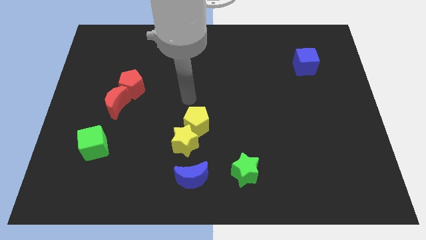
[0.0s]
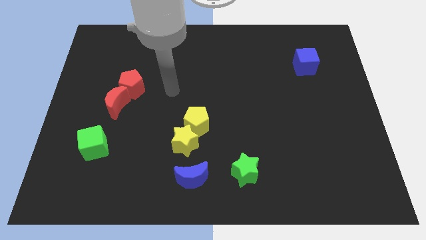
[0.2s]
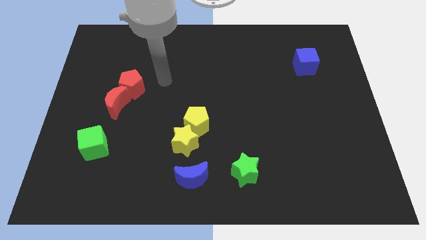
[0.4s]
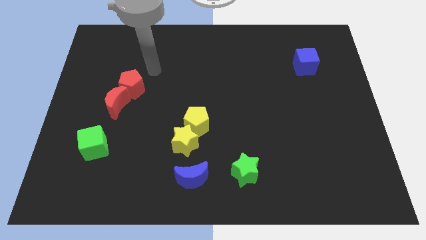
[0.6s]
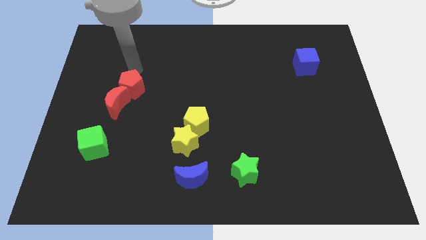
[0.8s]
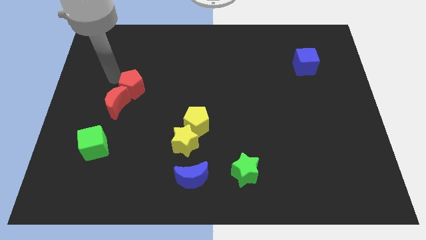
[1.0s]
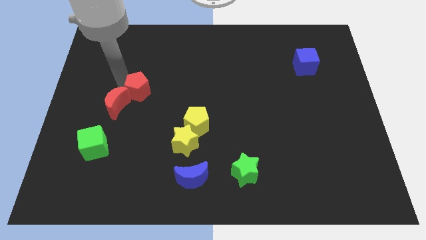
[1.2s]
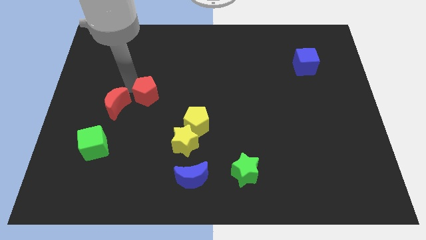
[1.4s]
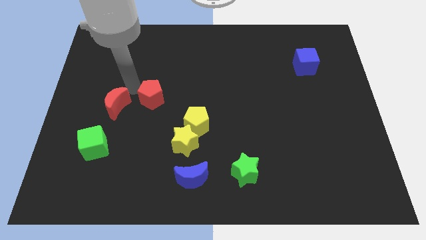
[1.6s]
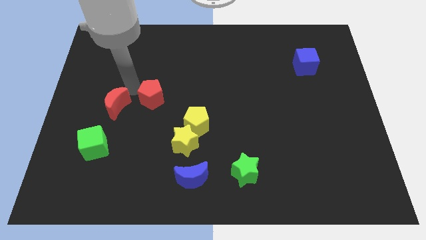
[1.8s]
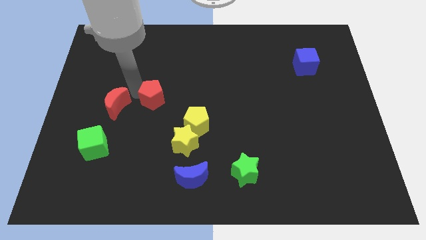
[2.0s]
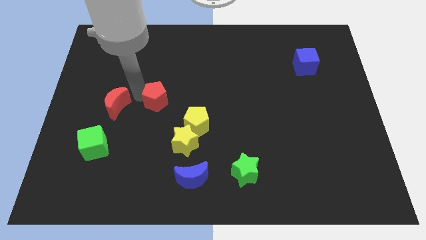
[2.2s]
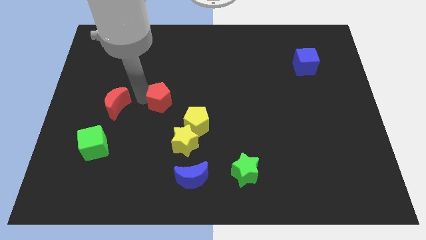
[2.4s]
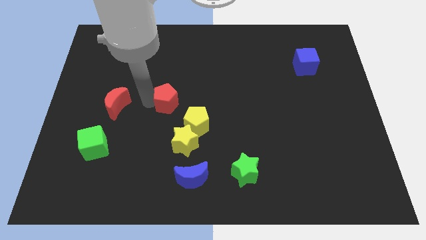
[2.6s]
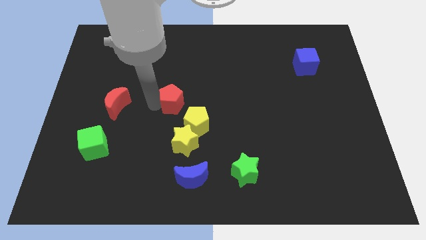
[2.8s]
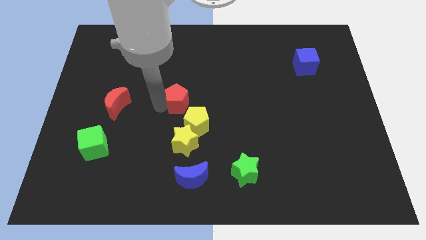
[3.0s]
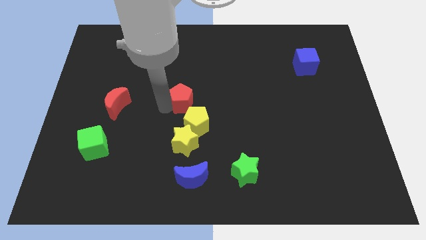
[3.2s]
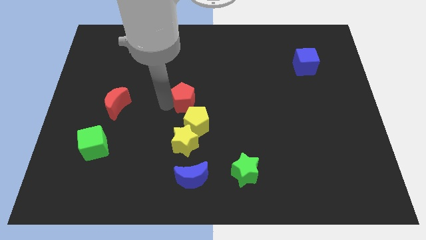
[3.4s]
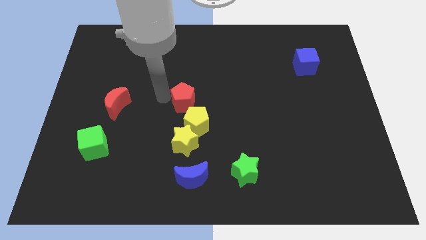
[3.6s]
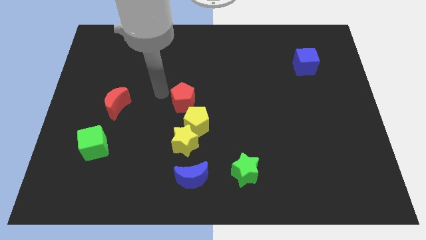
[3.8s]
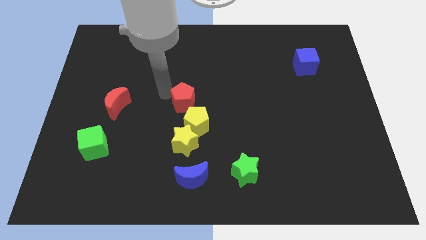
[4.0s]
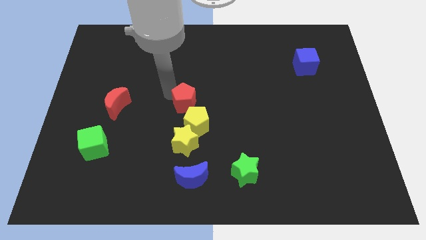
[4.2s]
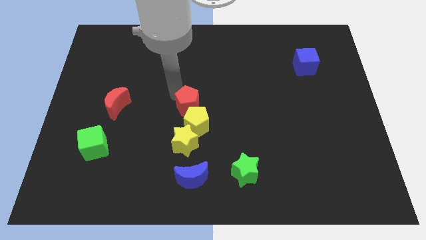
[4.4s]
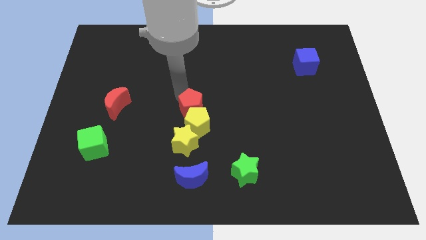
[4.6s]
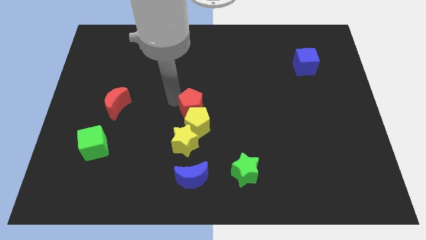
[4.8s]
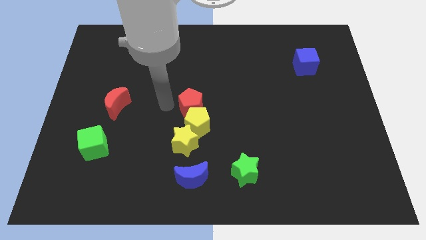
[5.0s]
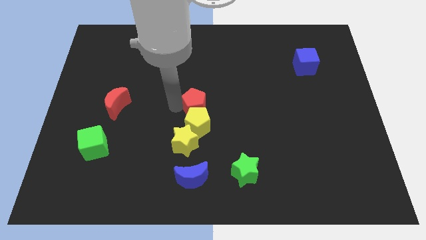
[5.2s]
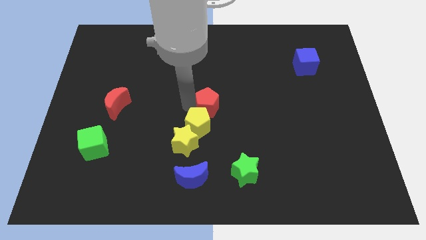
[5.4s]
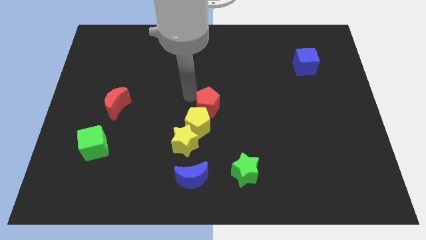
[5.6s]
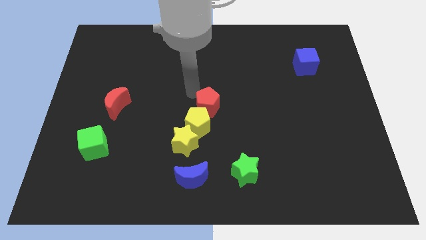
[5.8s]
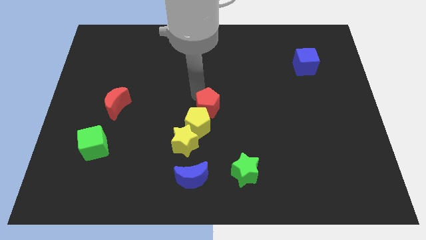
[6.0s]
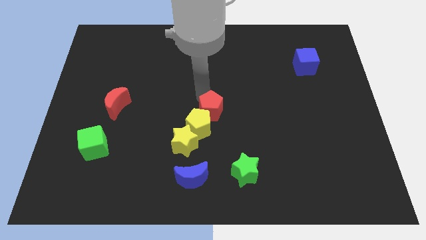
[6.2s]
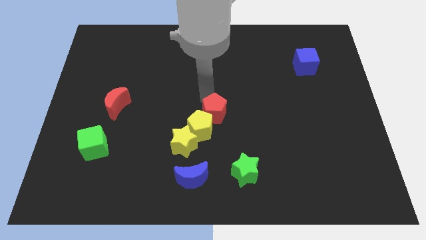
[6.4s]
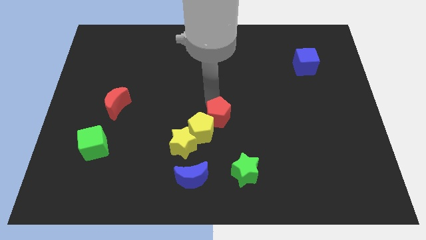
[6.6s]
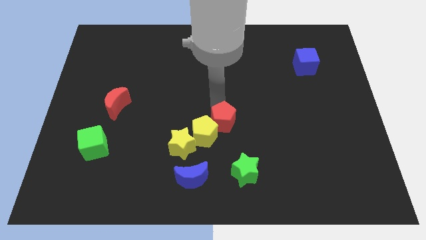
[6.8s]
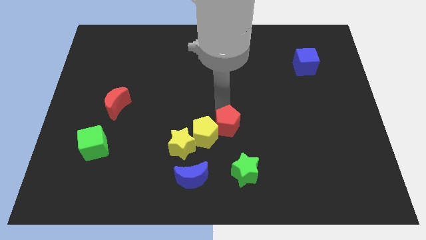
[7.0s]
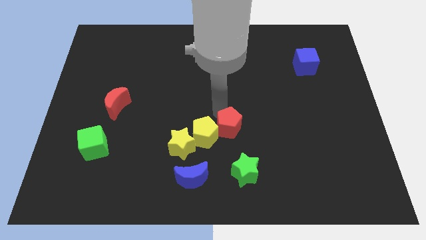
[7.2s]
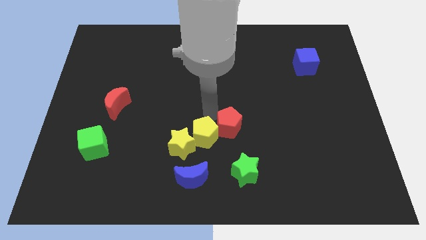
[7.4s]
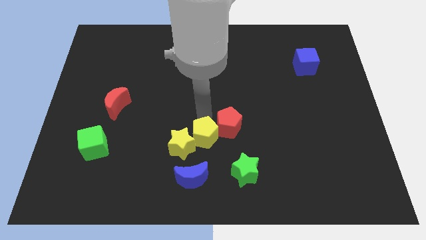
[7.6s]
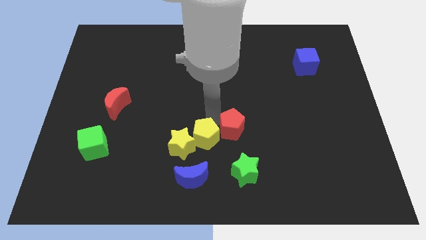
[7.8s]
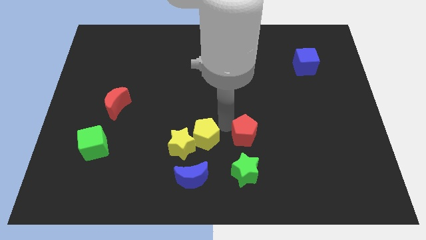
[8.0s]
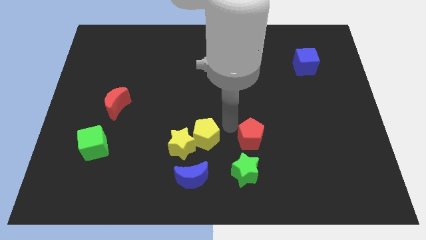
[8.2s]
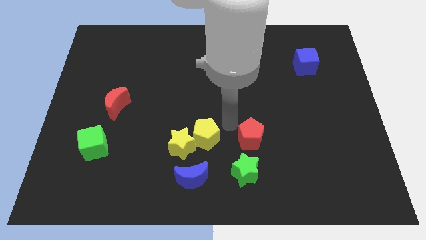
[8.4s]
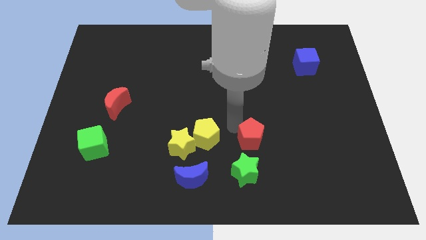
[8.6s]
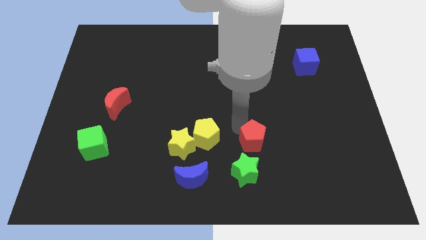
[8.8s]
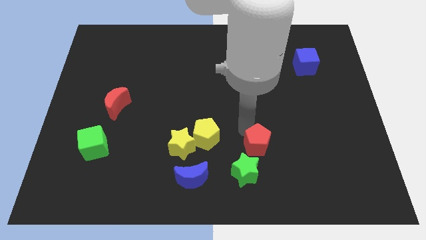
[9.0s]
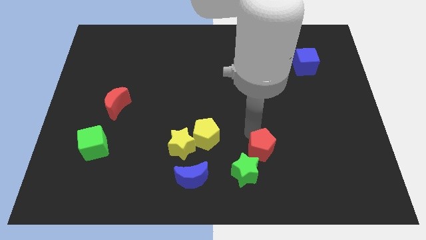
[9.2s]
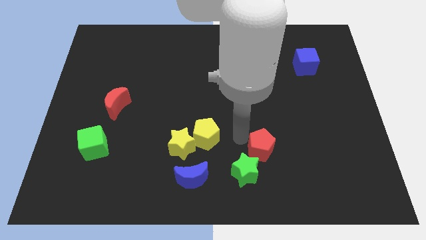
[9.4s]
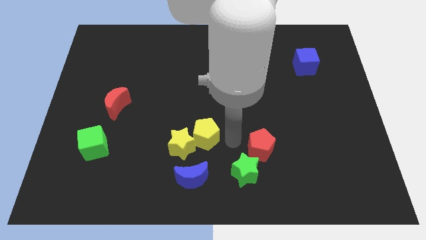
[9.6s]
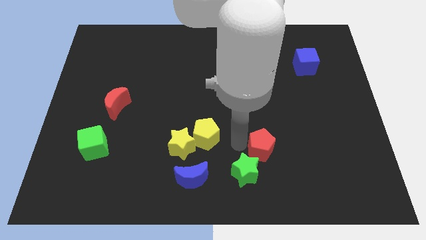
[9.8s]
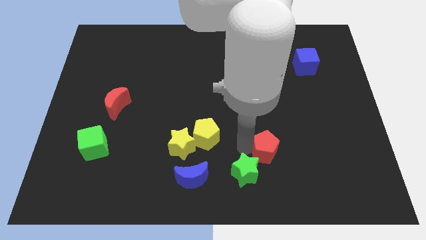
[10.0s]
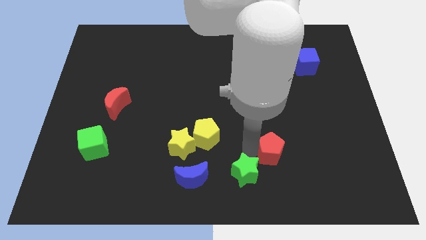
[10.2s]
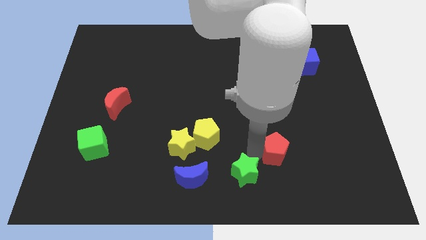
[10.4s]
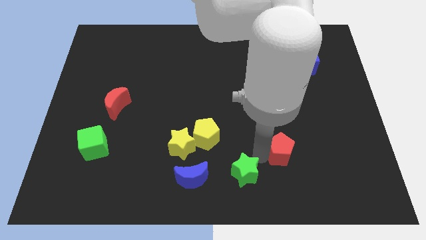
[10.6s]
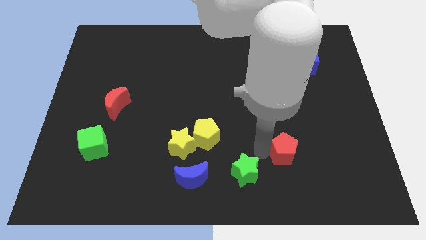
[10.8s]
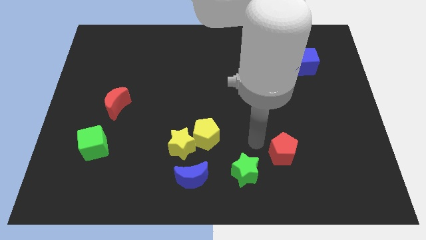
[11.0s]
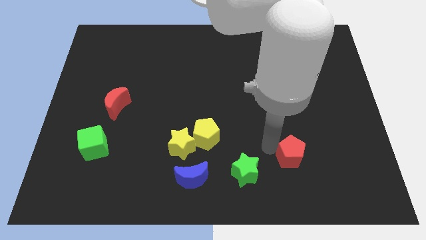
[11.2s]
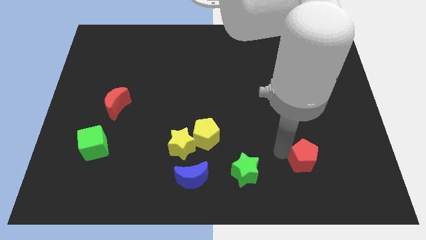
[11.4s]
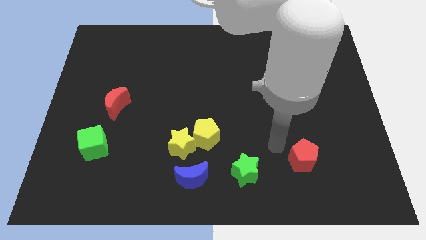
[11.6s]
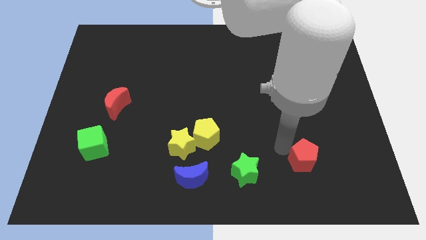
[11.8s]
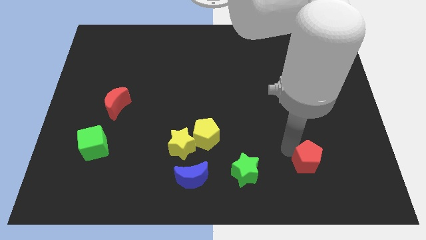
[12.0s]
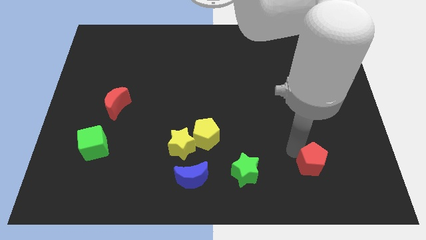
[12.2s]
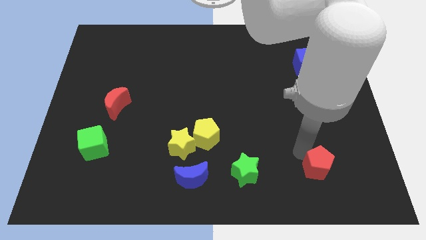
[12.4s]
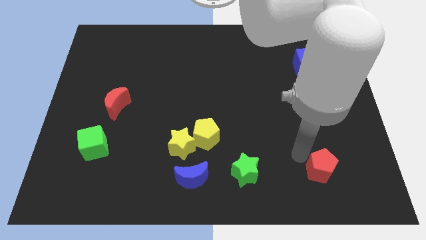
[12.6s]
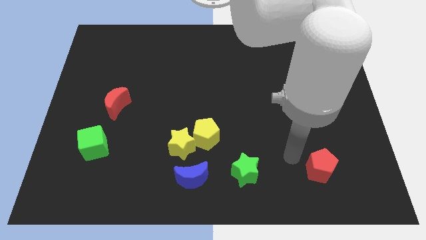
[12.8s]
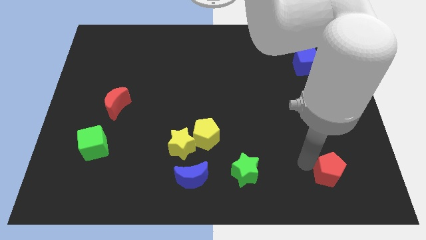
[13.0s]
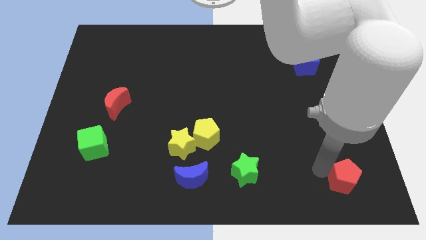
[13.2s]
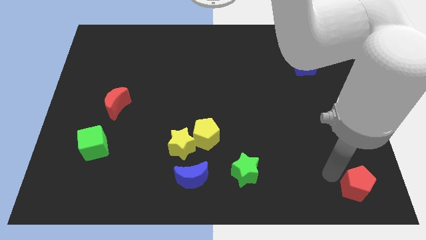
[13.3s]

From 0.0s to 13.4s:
put the red pentagon to the bottom right of the board
